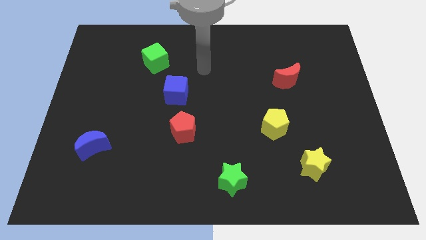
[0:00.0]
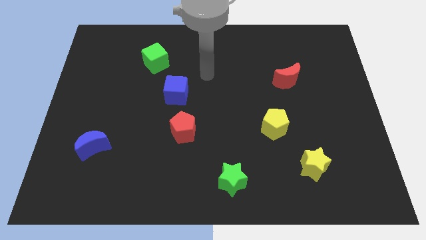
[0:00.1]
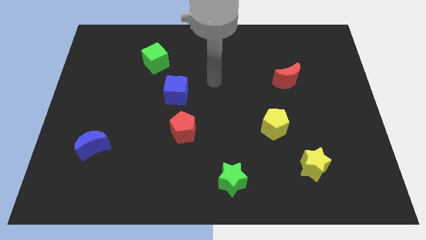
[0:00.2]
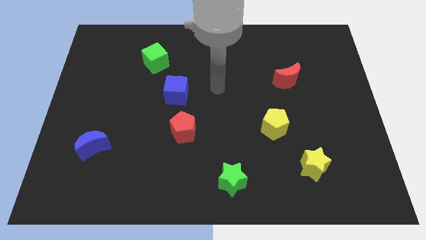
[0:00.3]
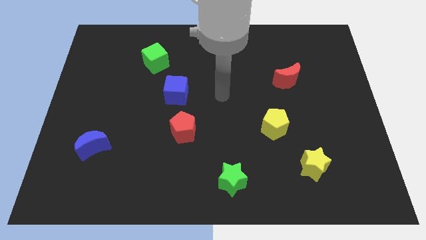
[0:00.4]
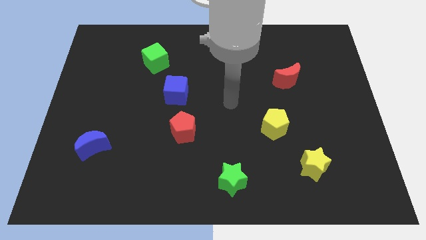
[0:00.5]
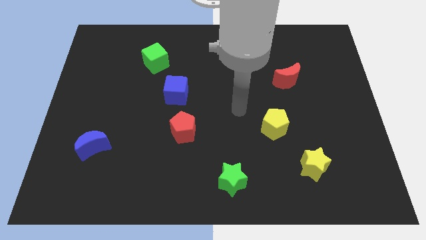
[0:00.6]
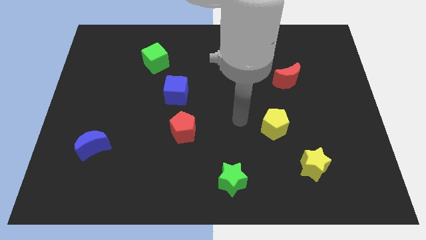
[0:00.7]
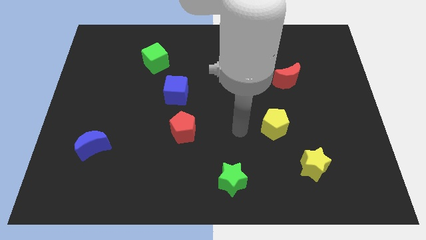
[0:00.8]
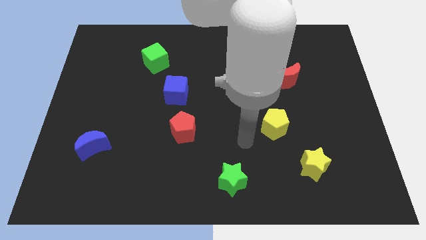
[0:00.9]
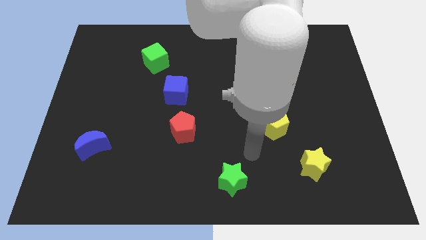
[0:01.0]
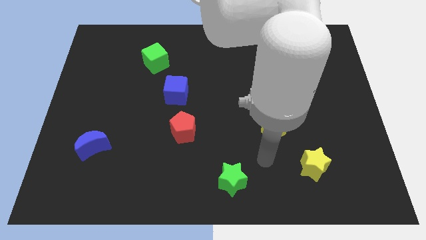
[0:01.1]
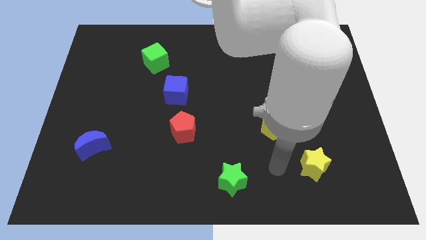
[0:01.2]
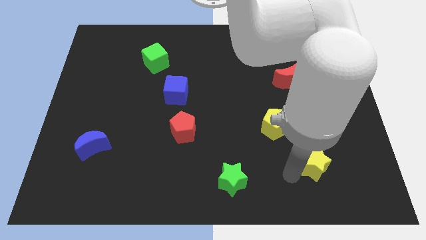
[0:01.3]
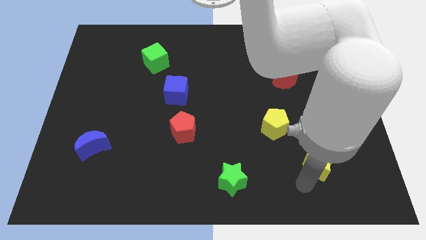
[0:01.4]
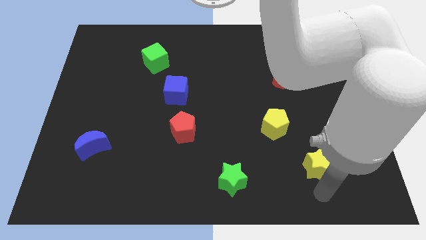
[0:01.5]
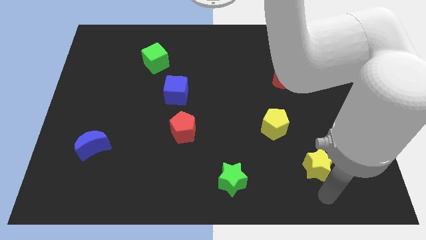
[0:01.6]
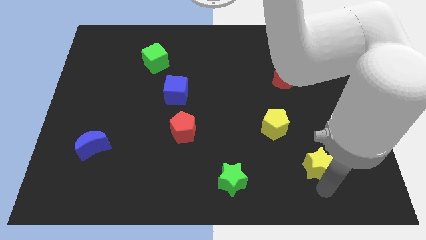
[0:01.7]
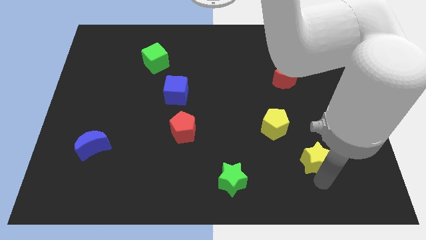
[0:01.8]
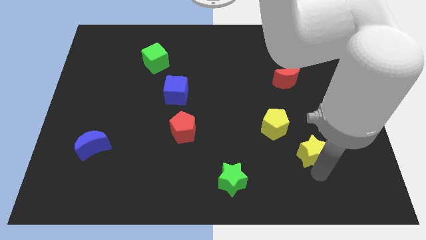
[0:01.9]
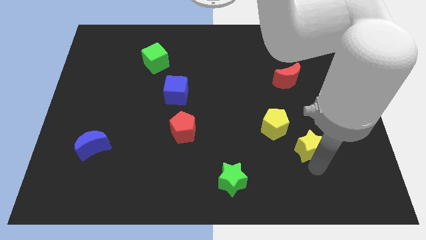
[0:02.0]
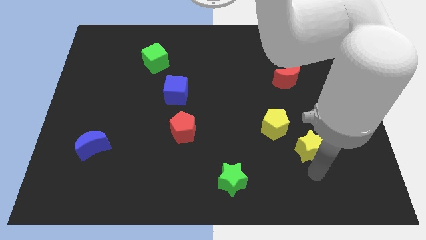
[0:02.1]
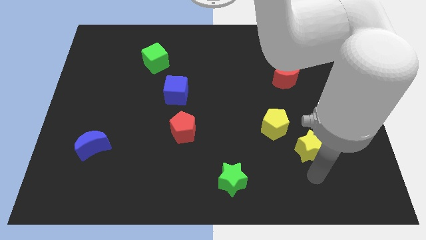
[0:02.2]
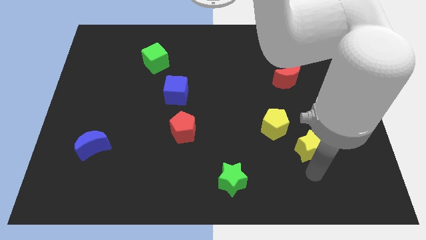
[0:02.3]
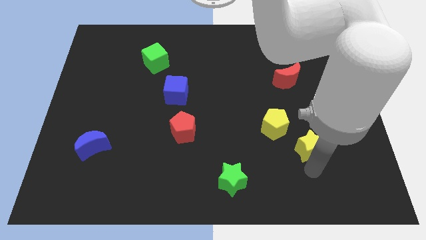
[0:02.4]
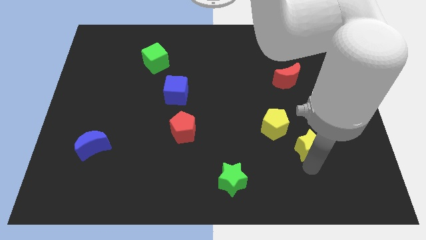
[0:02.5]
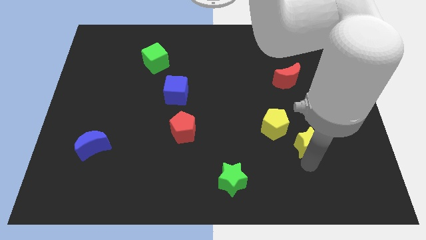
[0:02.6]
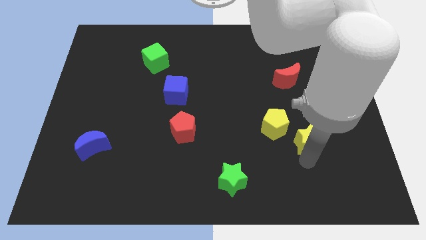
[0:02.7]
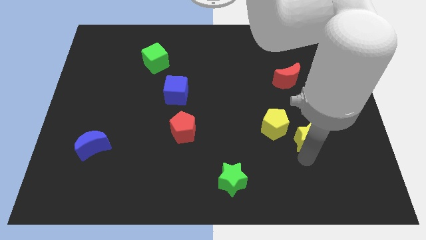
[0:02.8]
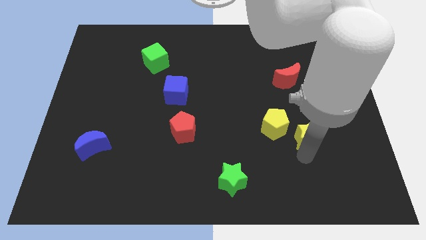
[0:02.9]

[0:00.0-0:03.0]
move the yellow star up a little

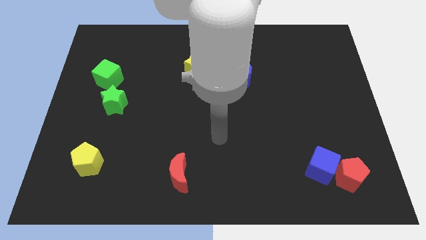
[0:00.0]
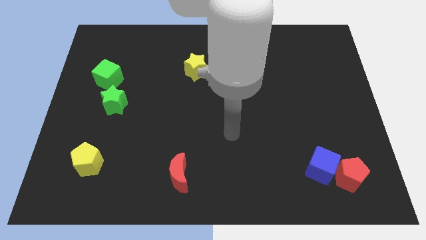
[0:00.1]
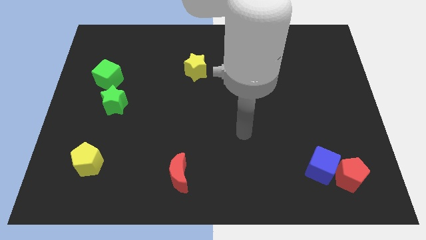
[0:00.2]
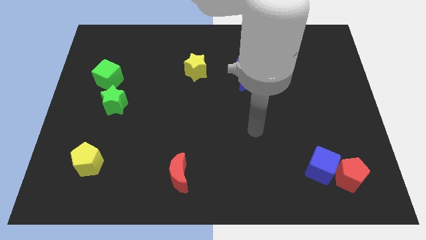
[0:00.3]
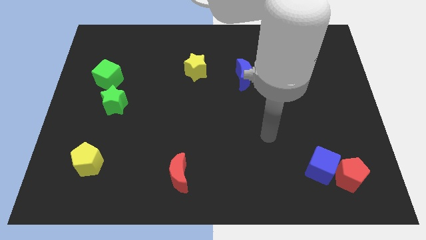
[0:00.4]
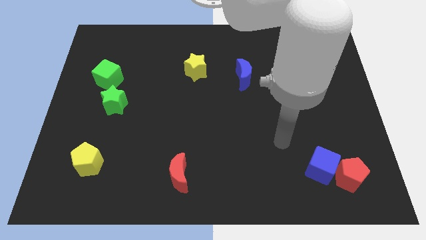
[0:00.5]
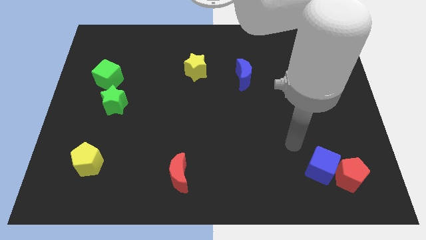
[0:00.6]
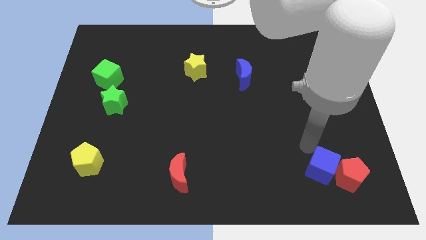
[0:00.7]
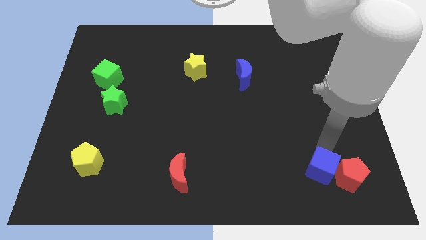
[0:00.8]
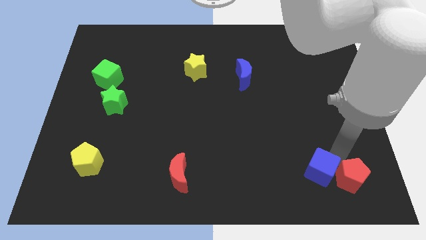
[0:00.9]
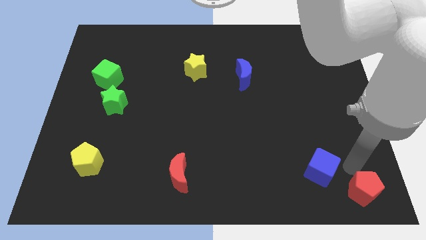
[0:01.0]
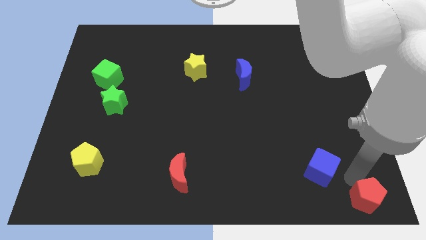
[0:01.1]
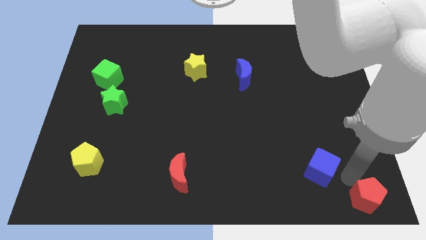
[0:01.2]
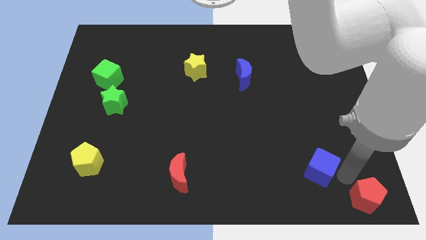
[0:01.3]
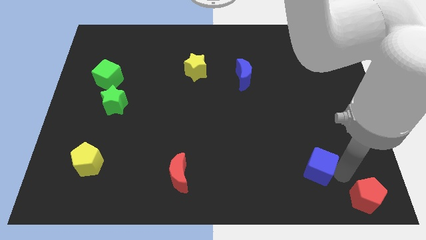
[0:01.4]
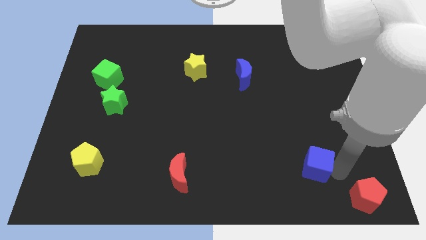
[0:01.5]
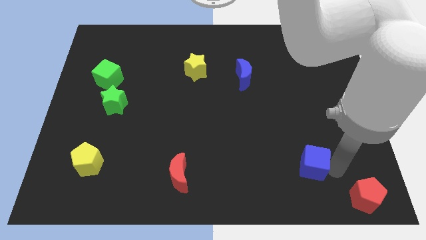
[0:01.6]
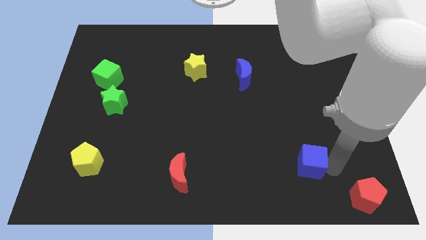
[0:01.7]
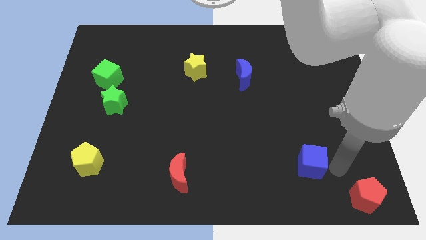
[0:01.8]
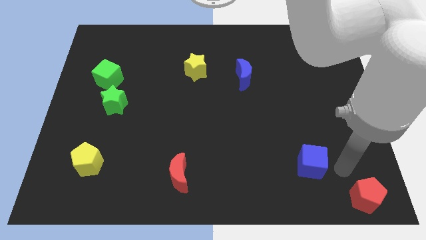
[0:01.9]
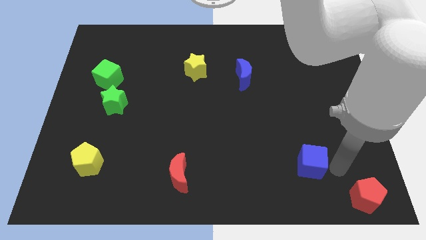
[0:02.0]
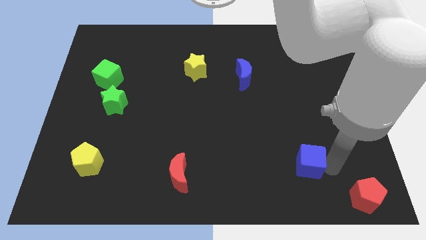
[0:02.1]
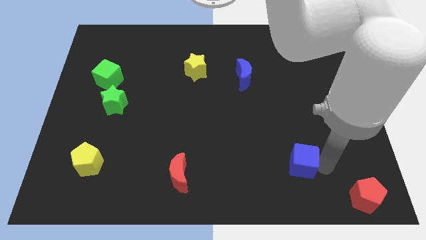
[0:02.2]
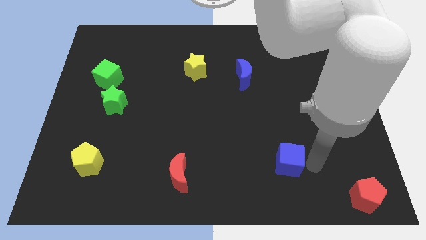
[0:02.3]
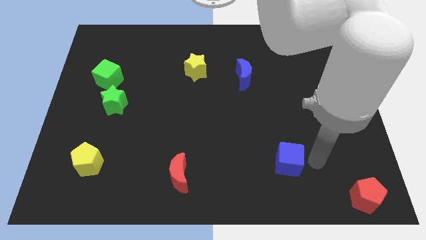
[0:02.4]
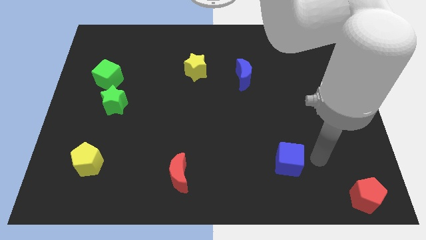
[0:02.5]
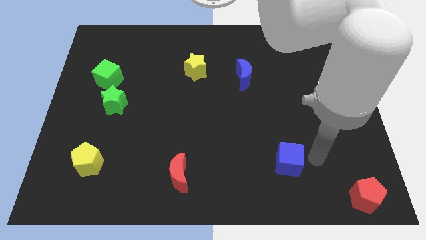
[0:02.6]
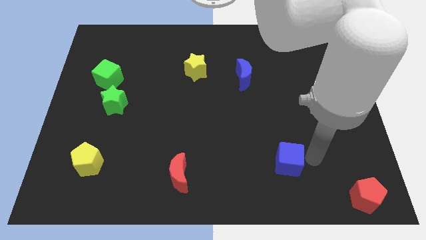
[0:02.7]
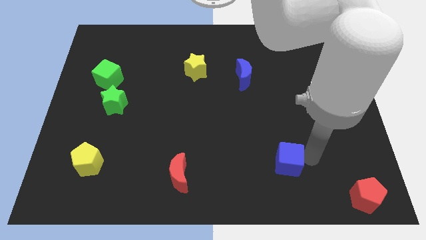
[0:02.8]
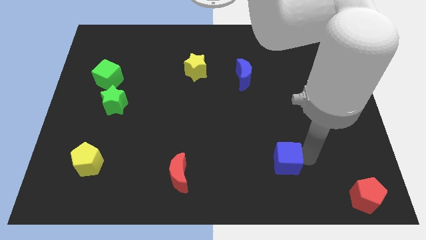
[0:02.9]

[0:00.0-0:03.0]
slightly move the blue cube left

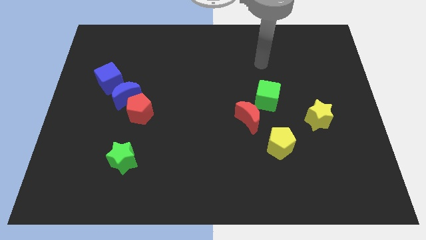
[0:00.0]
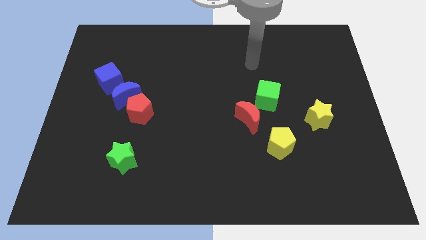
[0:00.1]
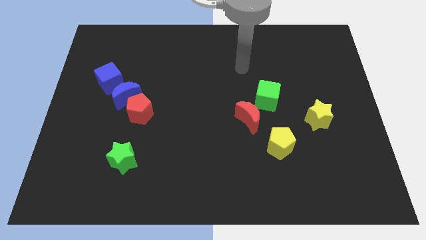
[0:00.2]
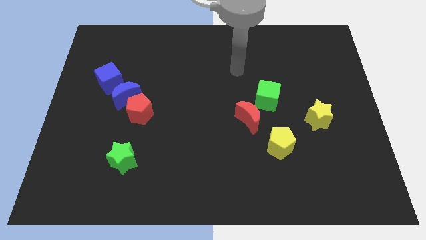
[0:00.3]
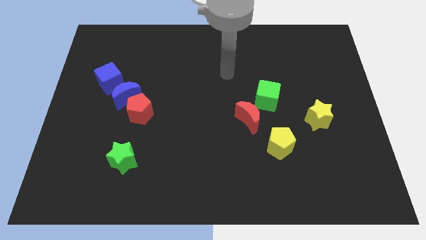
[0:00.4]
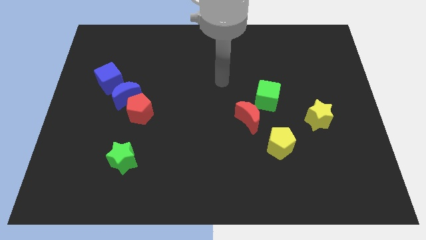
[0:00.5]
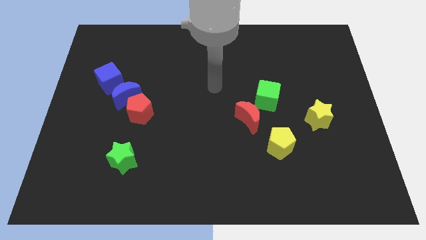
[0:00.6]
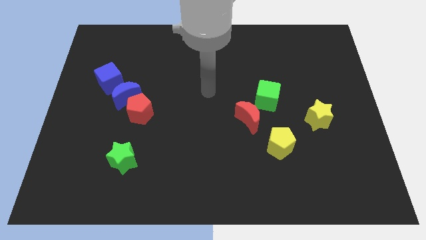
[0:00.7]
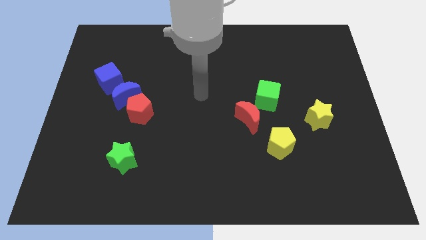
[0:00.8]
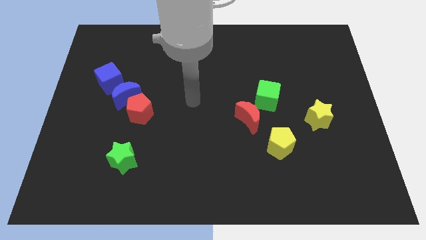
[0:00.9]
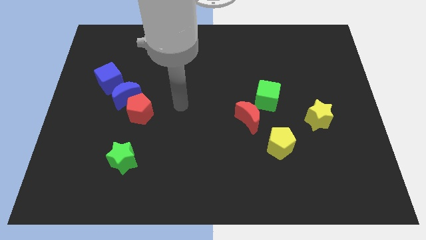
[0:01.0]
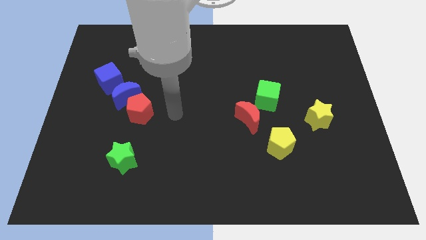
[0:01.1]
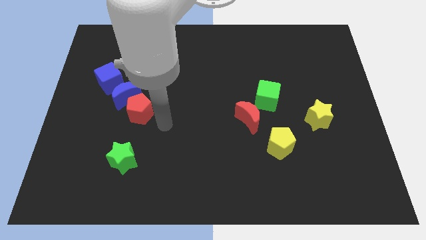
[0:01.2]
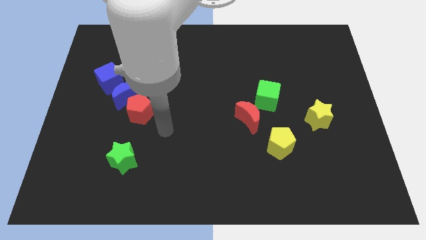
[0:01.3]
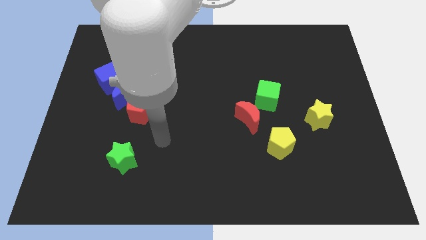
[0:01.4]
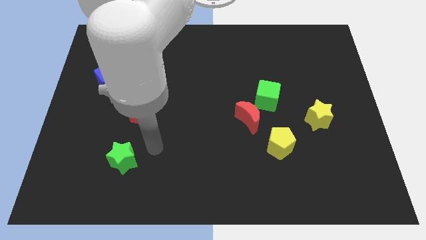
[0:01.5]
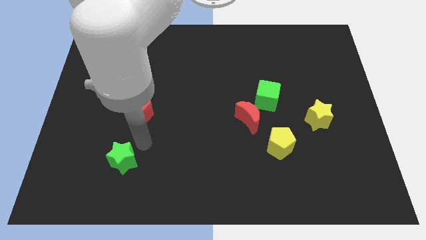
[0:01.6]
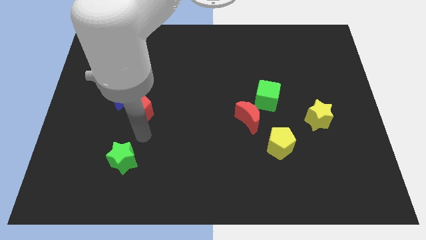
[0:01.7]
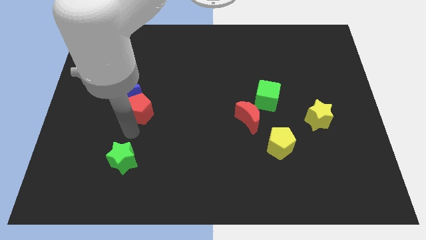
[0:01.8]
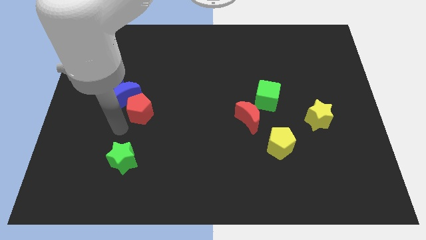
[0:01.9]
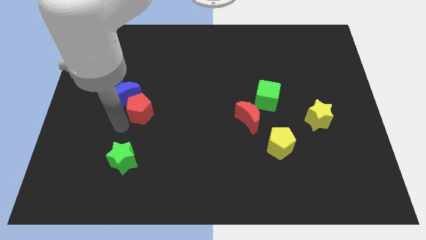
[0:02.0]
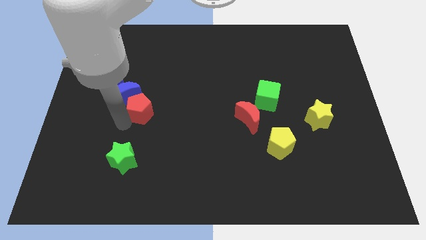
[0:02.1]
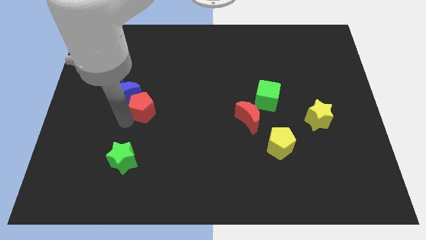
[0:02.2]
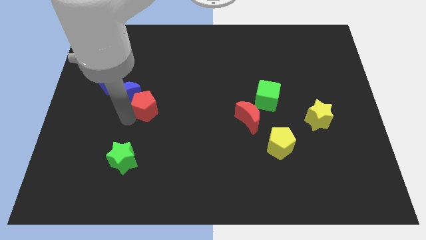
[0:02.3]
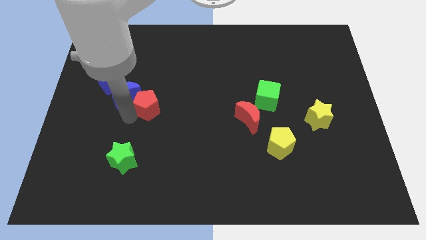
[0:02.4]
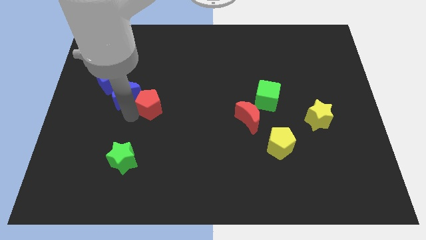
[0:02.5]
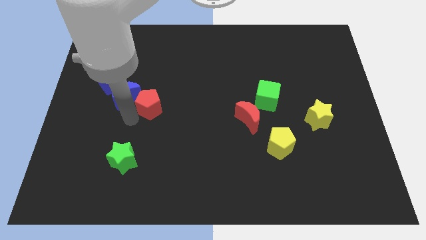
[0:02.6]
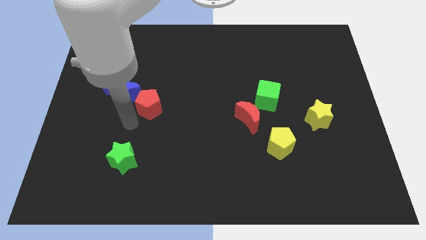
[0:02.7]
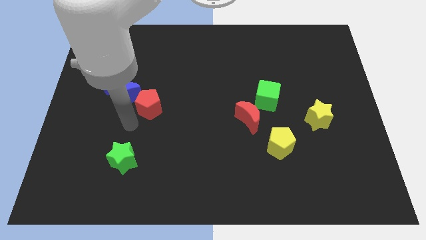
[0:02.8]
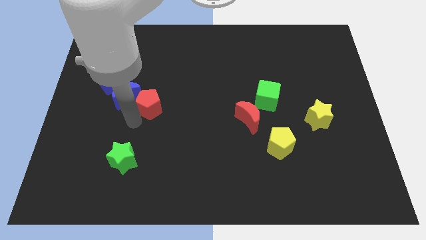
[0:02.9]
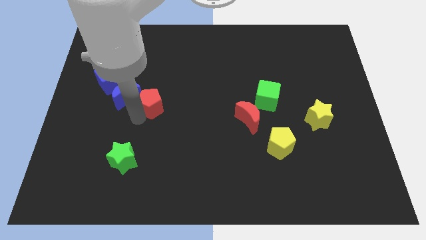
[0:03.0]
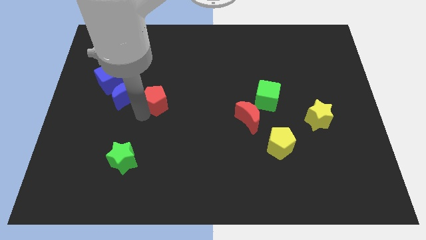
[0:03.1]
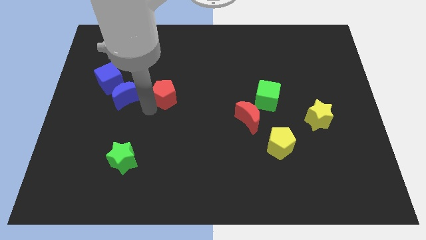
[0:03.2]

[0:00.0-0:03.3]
slightly slide the red pentagon up and then right
